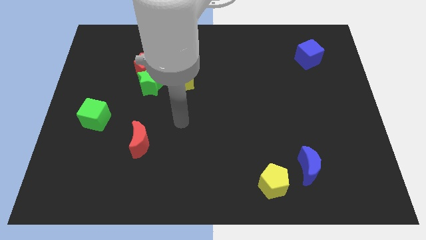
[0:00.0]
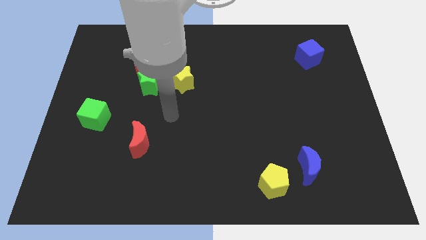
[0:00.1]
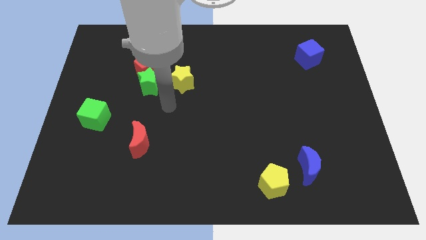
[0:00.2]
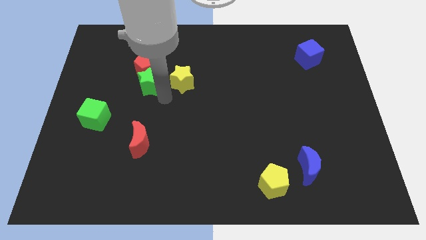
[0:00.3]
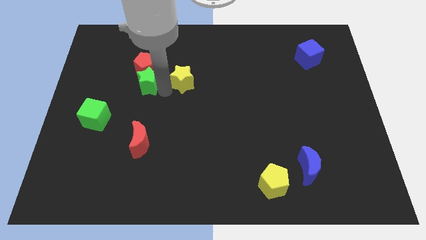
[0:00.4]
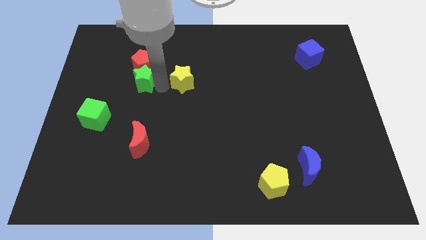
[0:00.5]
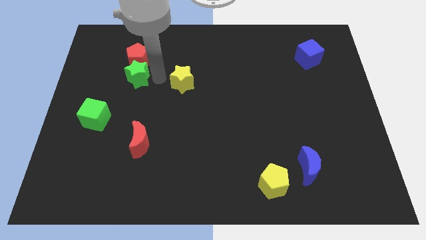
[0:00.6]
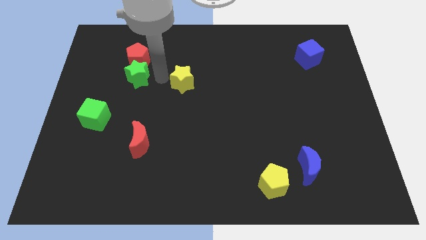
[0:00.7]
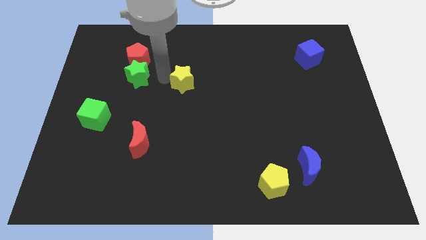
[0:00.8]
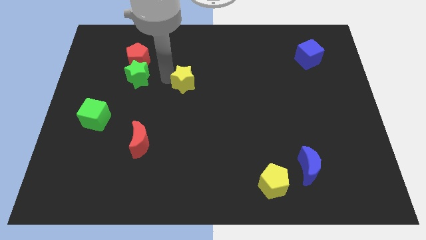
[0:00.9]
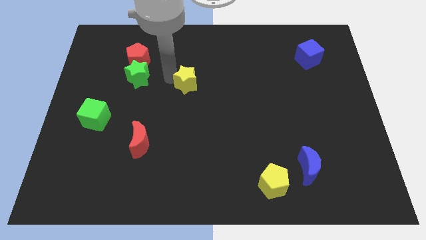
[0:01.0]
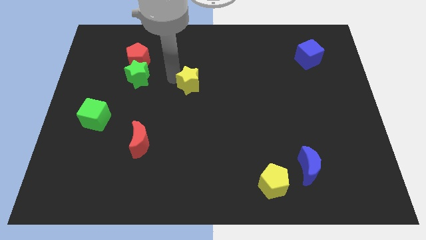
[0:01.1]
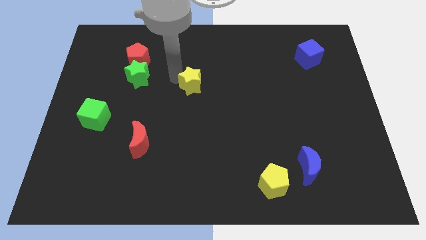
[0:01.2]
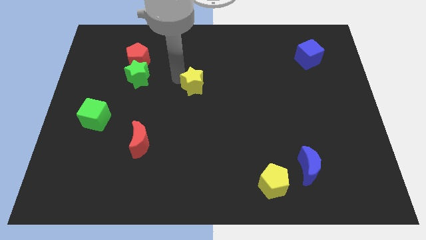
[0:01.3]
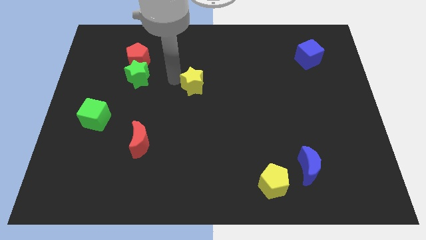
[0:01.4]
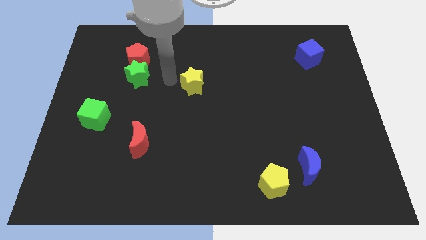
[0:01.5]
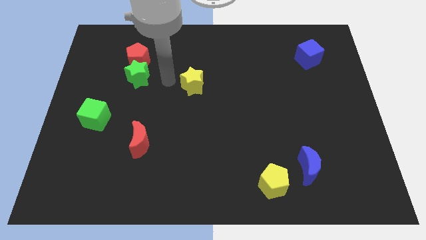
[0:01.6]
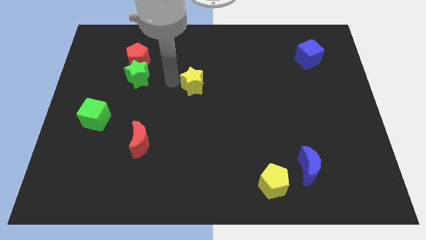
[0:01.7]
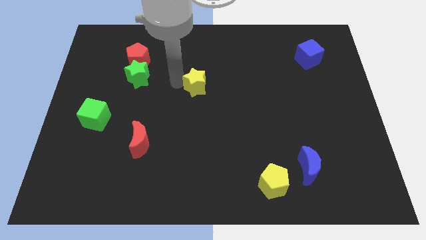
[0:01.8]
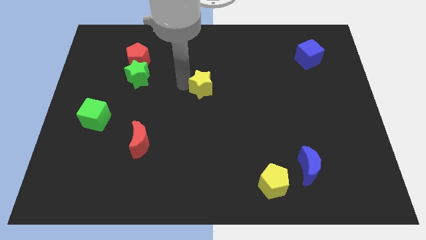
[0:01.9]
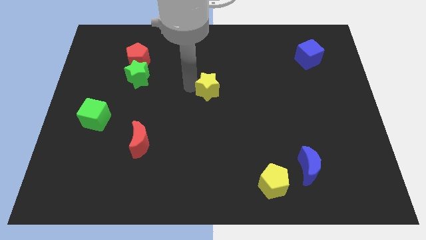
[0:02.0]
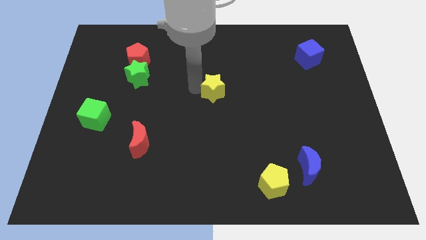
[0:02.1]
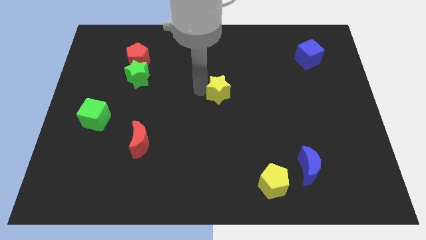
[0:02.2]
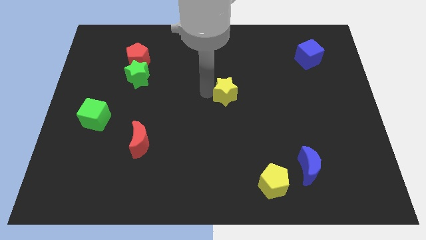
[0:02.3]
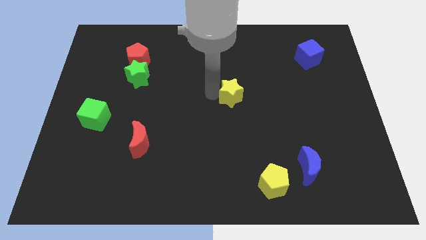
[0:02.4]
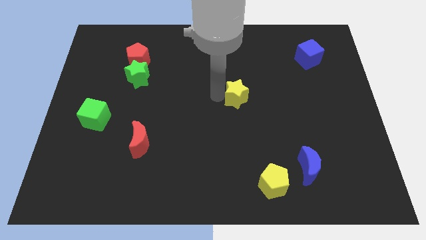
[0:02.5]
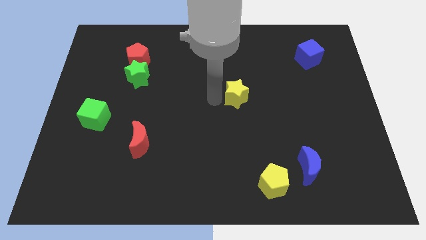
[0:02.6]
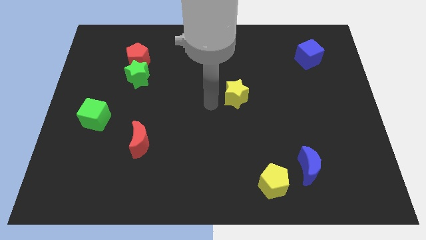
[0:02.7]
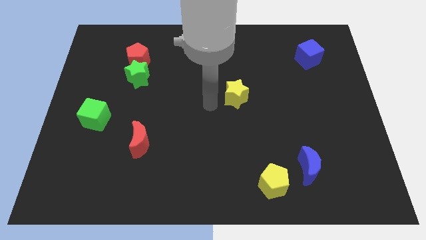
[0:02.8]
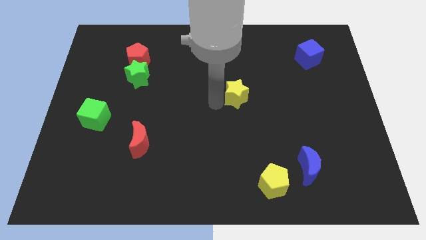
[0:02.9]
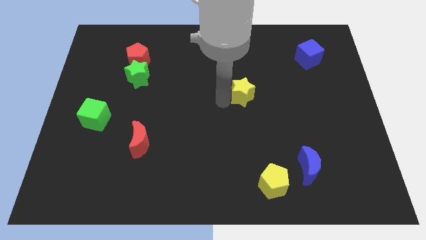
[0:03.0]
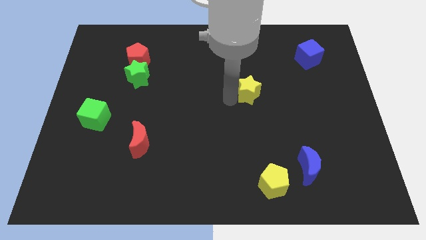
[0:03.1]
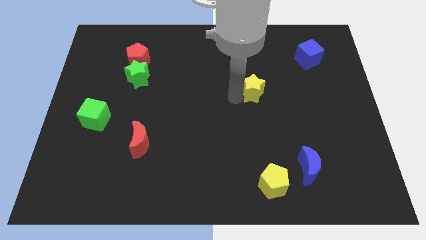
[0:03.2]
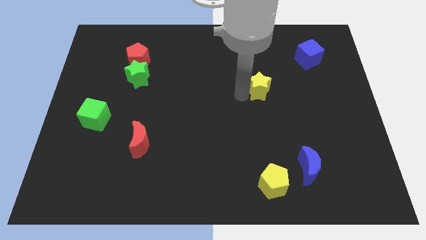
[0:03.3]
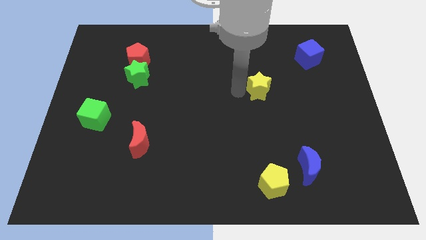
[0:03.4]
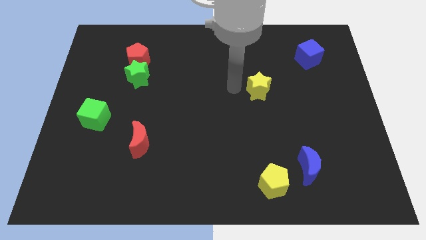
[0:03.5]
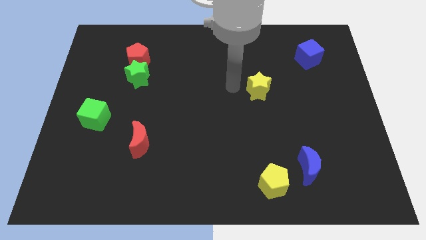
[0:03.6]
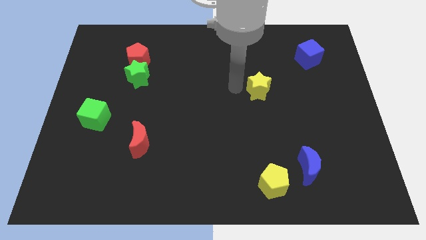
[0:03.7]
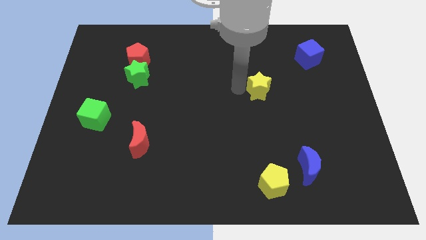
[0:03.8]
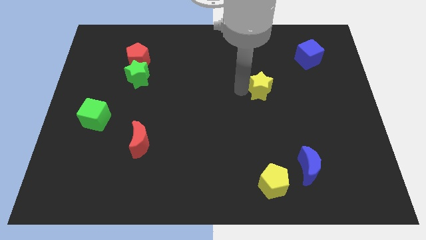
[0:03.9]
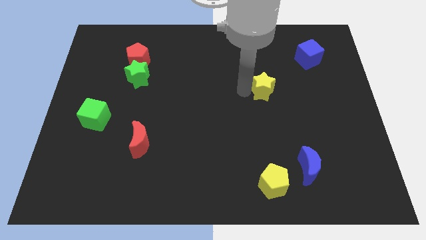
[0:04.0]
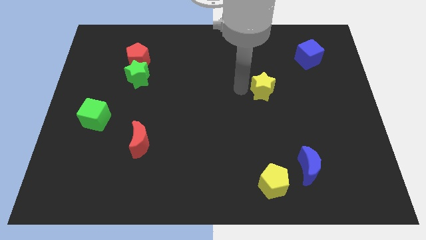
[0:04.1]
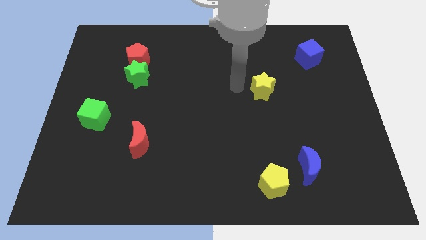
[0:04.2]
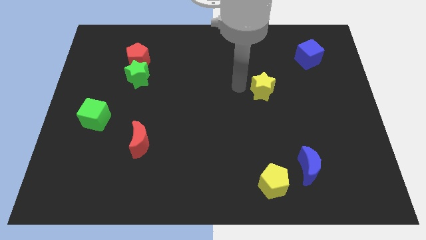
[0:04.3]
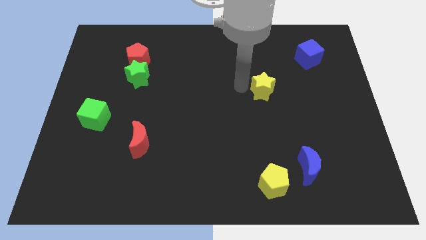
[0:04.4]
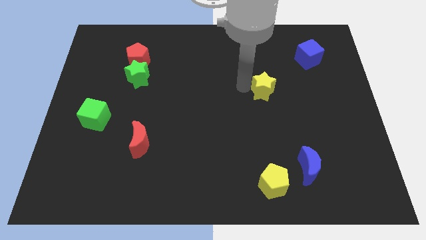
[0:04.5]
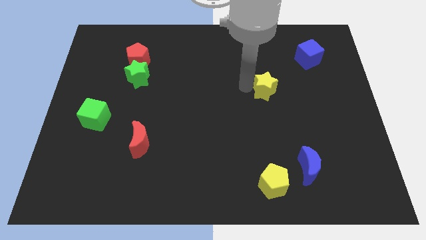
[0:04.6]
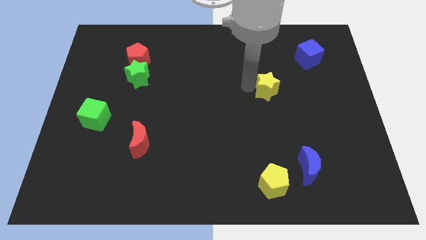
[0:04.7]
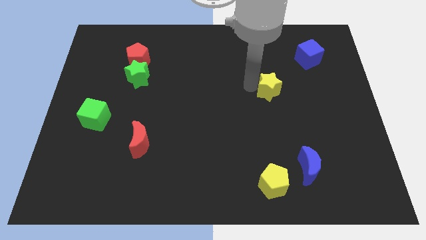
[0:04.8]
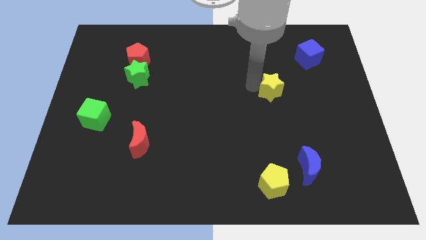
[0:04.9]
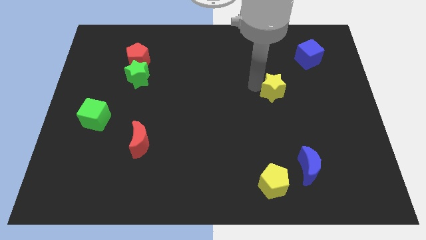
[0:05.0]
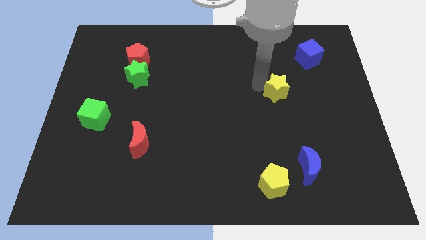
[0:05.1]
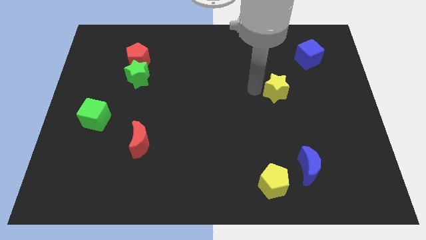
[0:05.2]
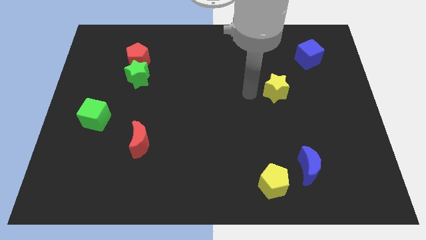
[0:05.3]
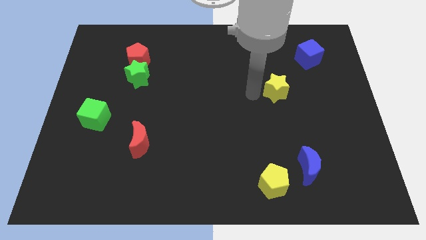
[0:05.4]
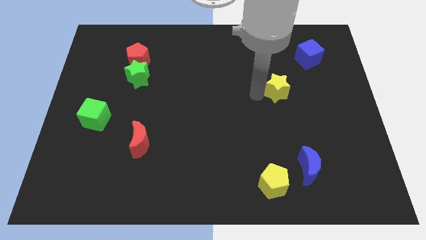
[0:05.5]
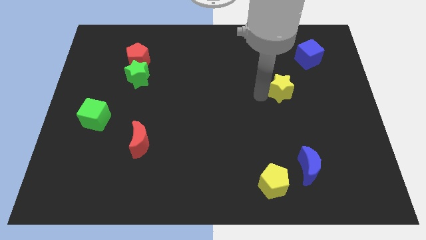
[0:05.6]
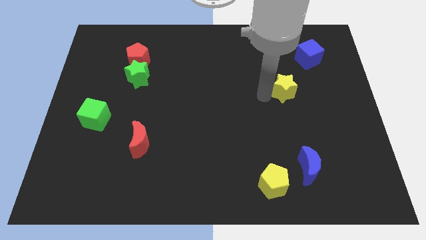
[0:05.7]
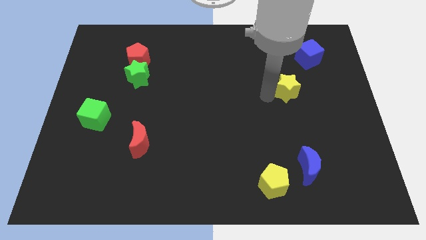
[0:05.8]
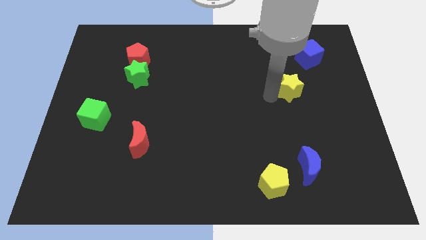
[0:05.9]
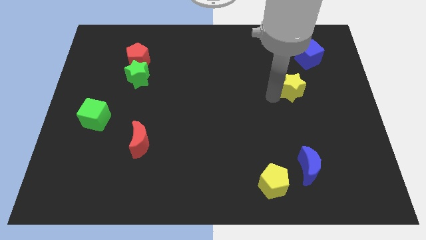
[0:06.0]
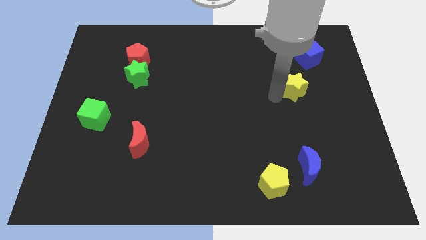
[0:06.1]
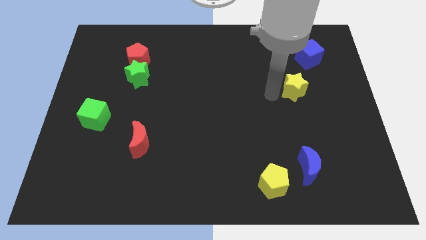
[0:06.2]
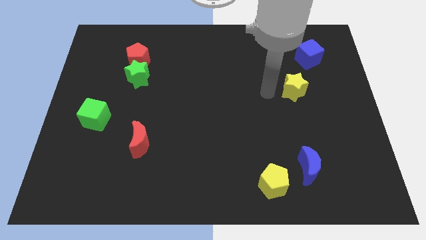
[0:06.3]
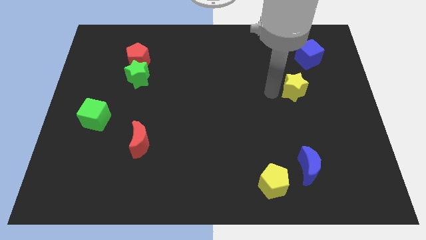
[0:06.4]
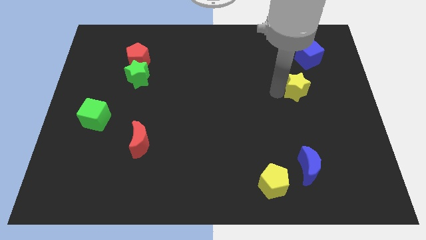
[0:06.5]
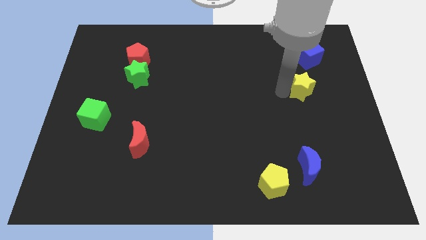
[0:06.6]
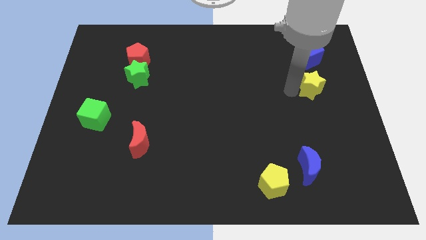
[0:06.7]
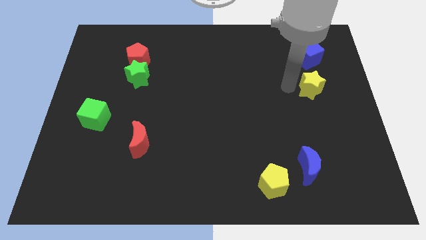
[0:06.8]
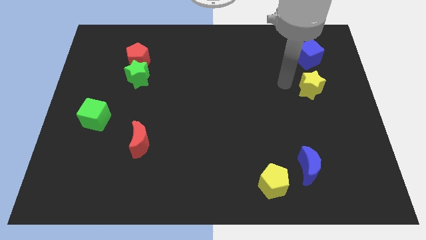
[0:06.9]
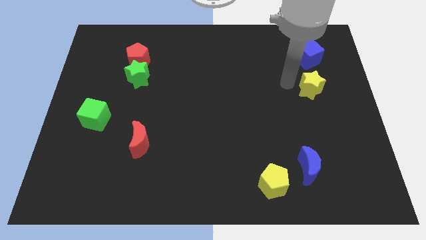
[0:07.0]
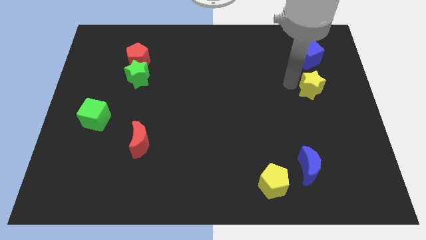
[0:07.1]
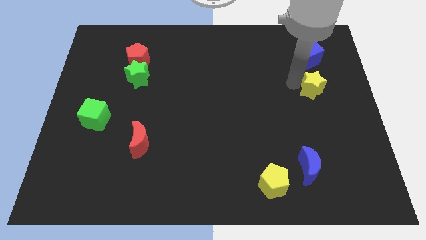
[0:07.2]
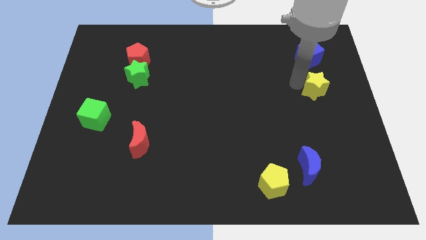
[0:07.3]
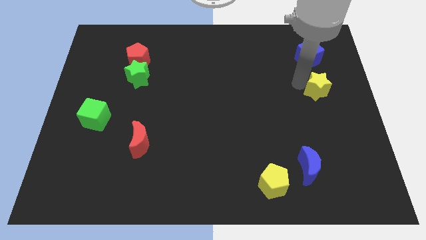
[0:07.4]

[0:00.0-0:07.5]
push the yellow star to the right side of the board
